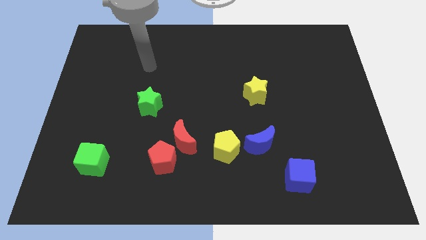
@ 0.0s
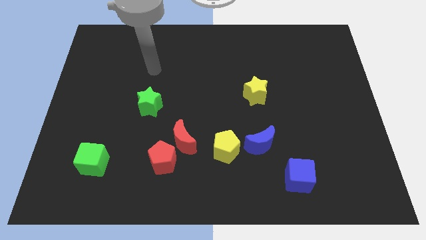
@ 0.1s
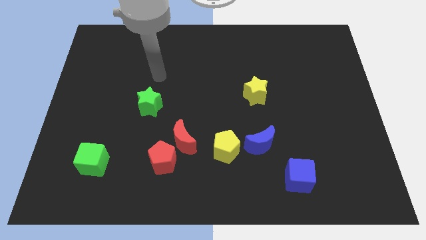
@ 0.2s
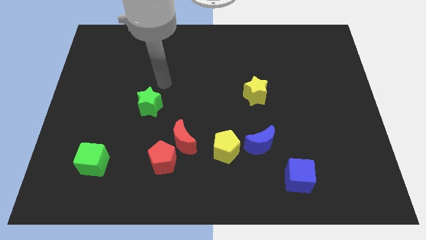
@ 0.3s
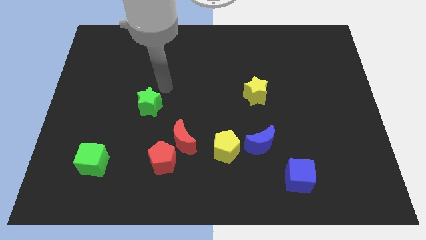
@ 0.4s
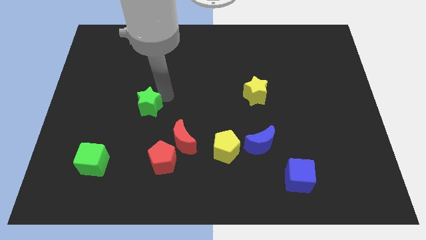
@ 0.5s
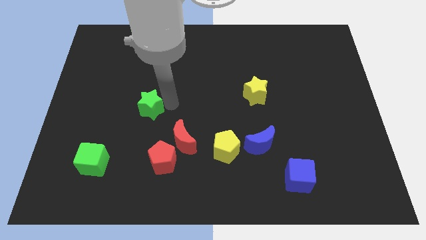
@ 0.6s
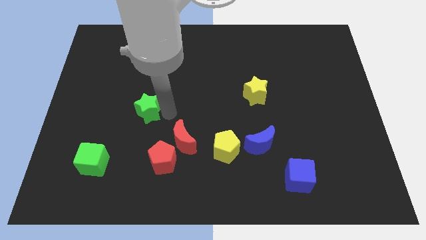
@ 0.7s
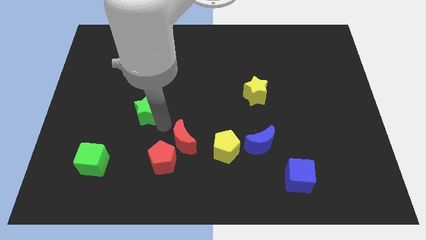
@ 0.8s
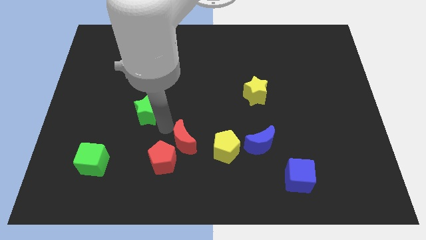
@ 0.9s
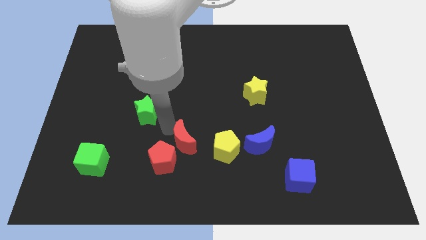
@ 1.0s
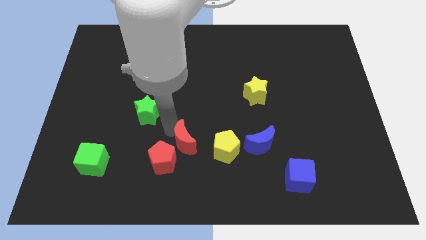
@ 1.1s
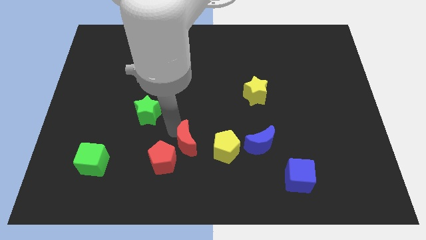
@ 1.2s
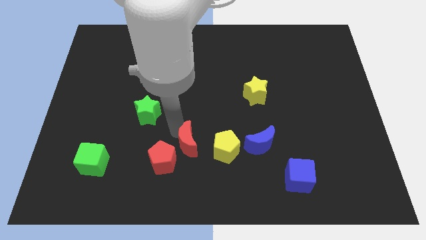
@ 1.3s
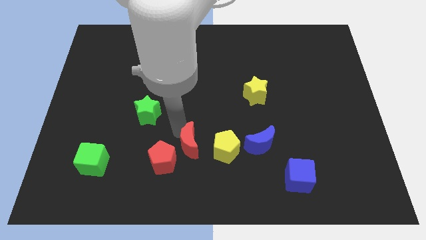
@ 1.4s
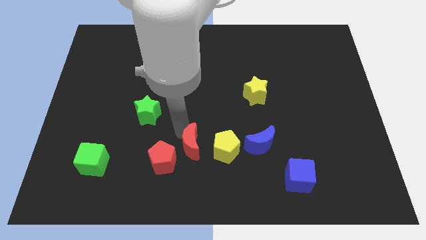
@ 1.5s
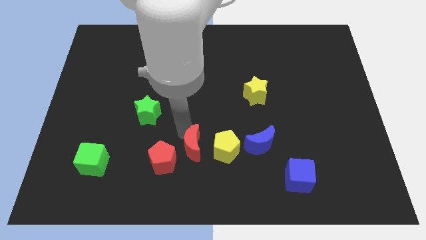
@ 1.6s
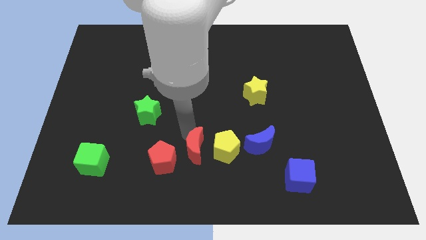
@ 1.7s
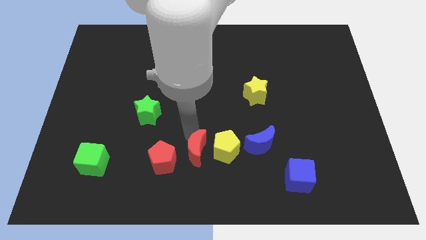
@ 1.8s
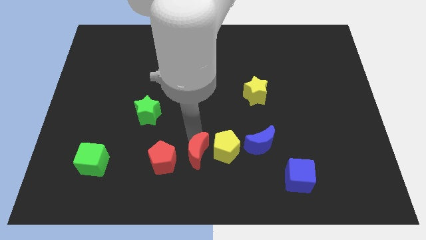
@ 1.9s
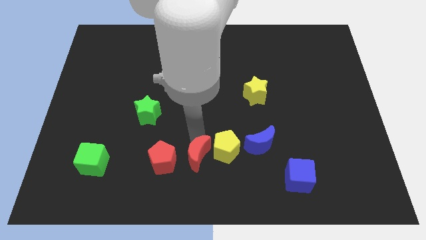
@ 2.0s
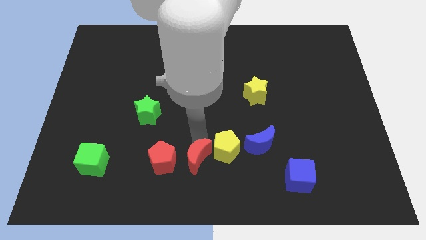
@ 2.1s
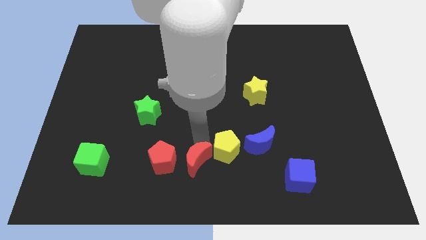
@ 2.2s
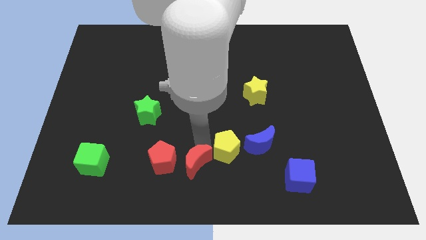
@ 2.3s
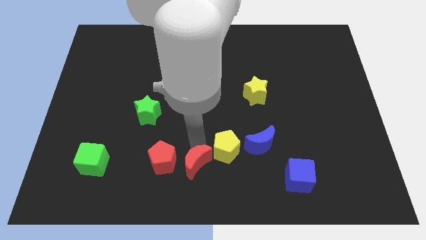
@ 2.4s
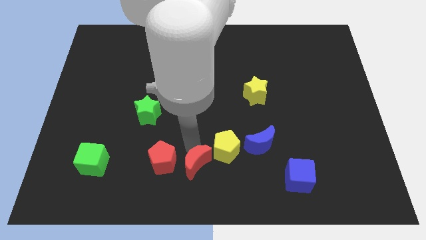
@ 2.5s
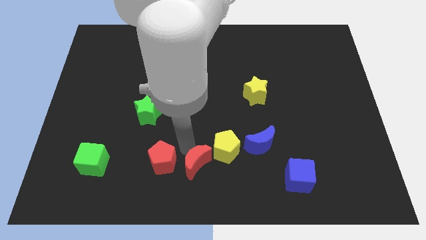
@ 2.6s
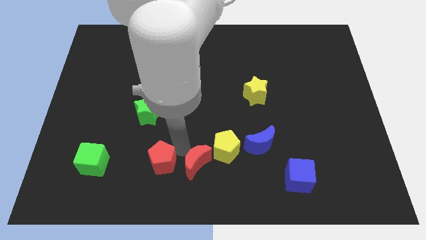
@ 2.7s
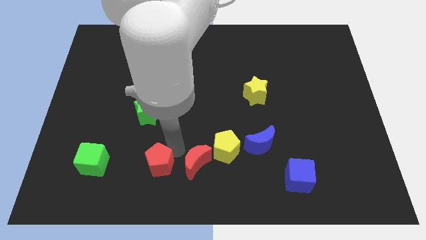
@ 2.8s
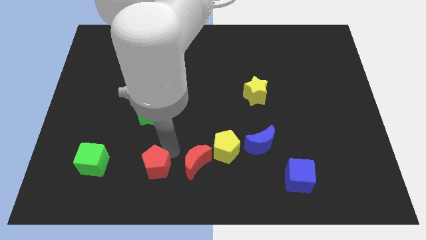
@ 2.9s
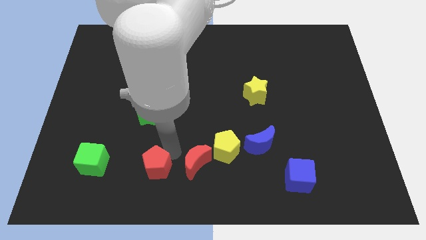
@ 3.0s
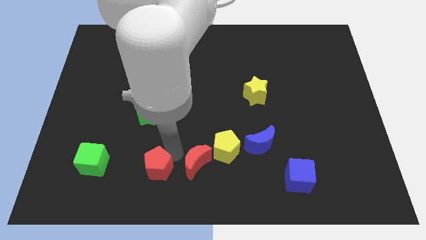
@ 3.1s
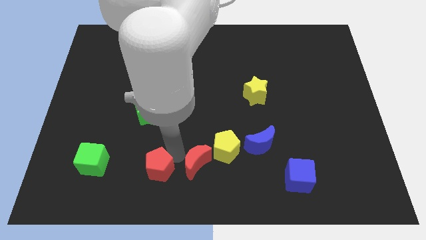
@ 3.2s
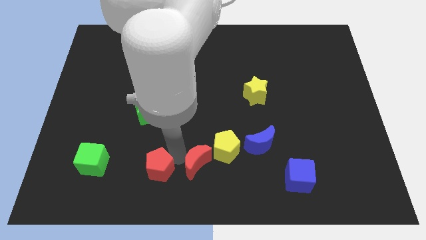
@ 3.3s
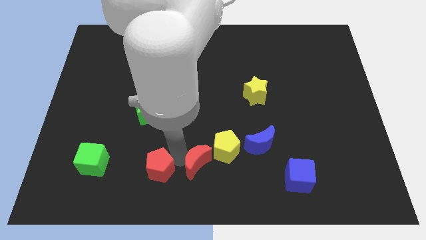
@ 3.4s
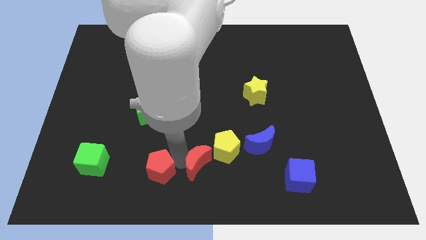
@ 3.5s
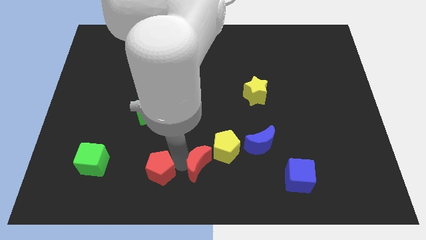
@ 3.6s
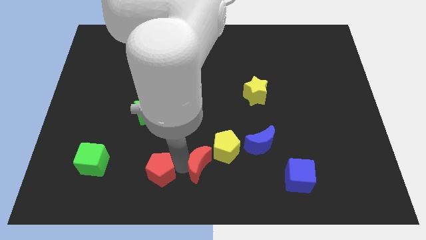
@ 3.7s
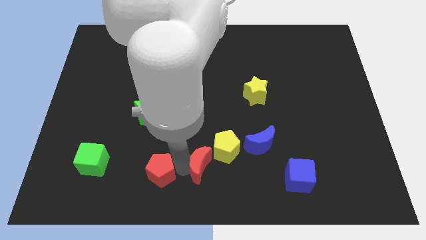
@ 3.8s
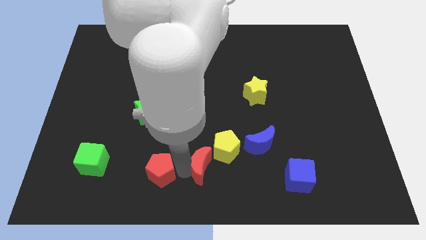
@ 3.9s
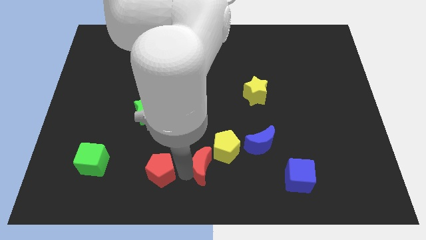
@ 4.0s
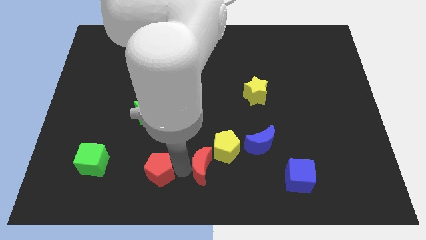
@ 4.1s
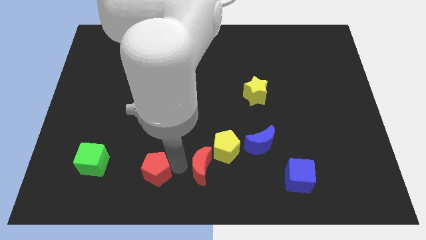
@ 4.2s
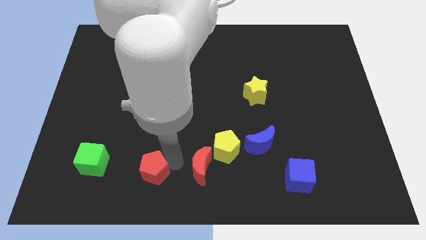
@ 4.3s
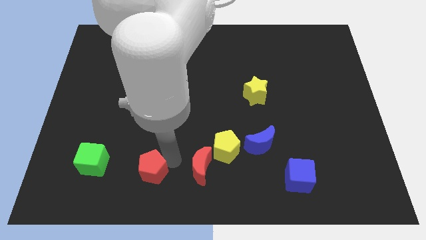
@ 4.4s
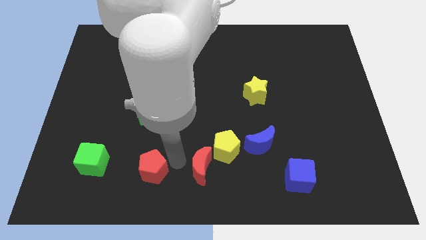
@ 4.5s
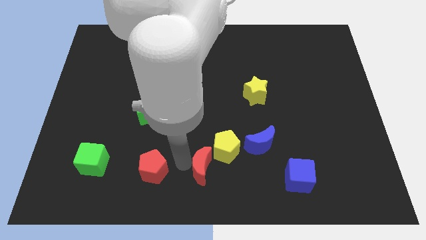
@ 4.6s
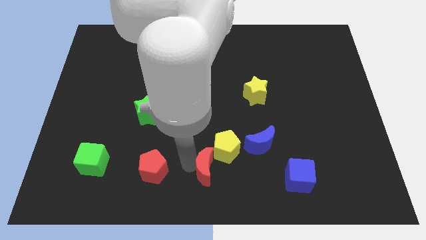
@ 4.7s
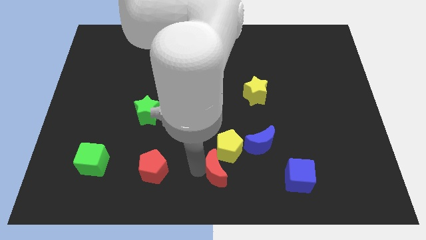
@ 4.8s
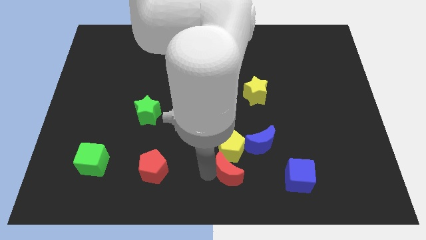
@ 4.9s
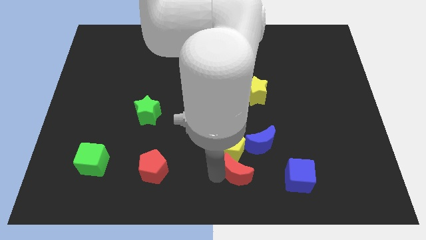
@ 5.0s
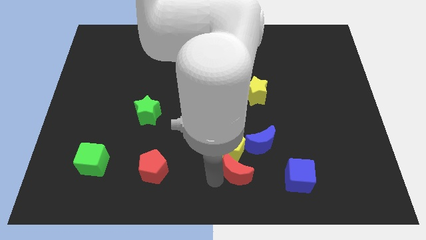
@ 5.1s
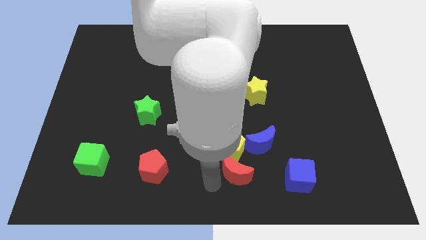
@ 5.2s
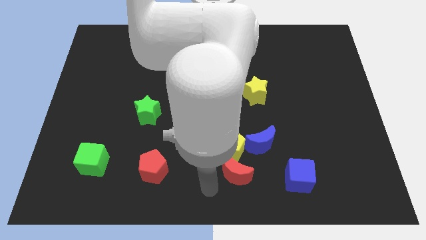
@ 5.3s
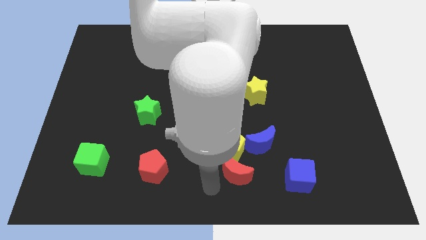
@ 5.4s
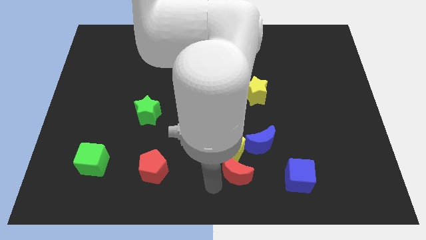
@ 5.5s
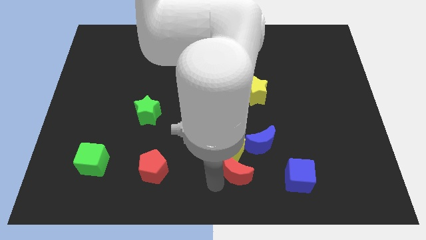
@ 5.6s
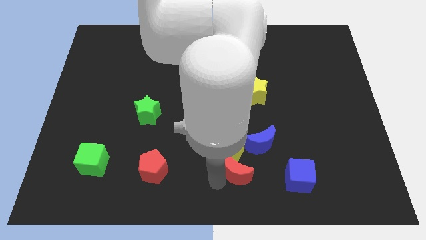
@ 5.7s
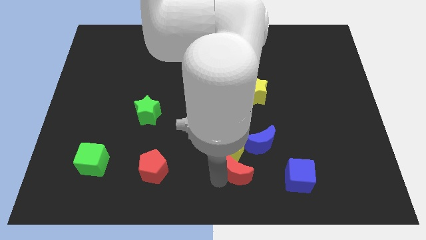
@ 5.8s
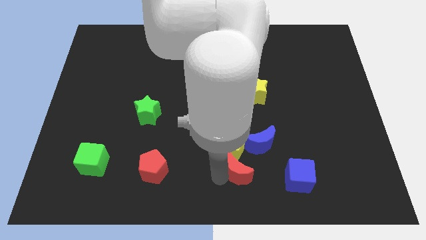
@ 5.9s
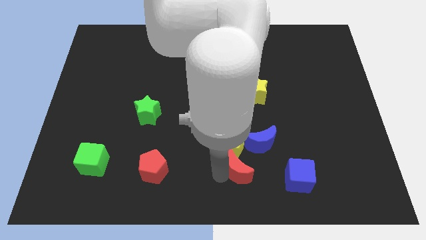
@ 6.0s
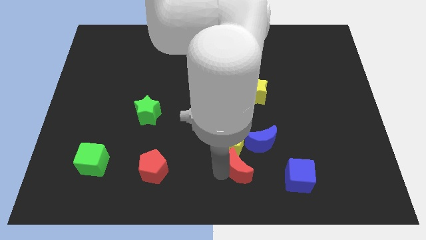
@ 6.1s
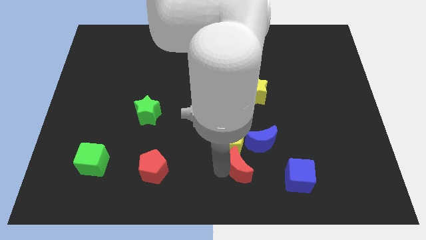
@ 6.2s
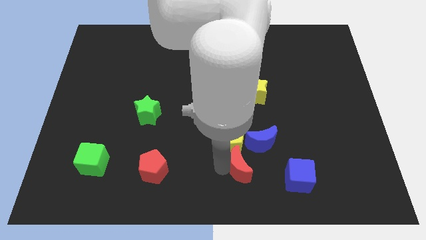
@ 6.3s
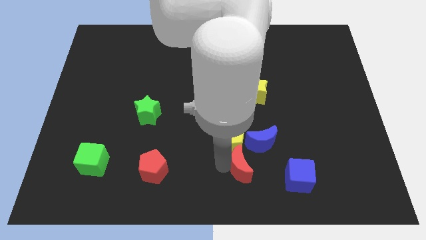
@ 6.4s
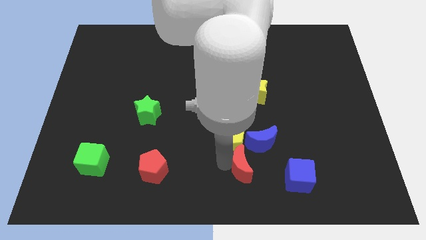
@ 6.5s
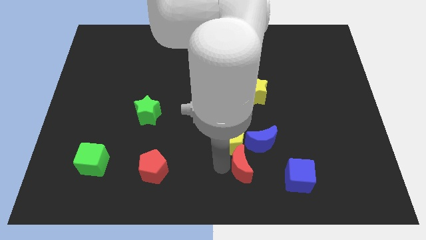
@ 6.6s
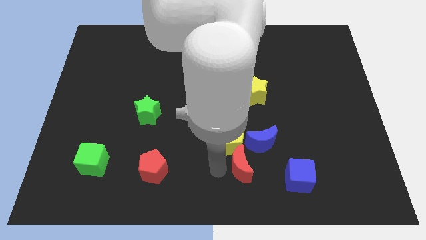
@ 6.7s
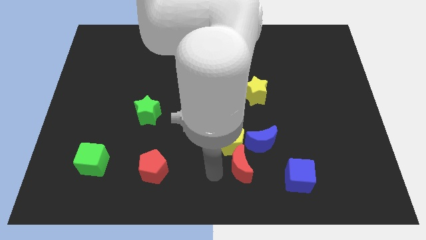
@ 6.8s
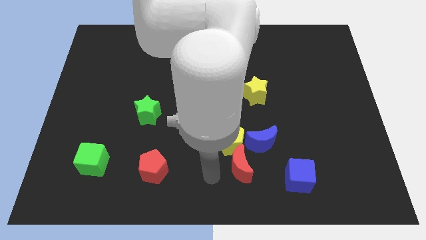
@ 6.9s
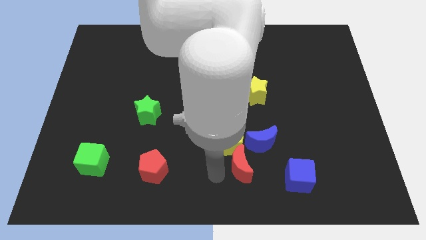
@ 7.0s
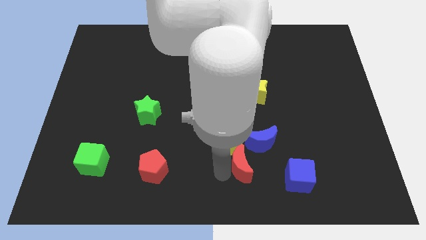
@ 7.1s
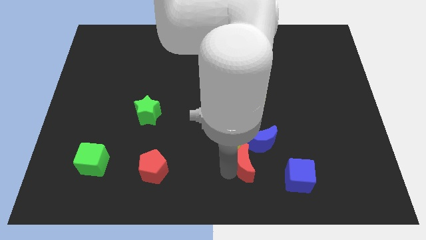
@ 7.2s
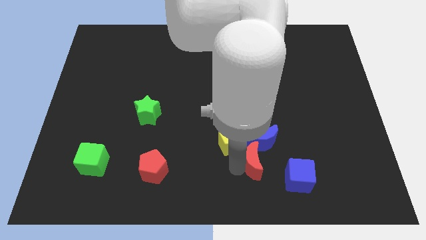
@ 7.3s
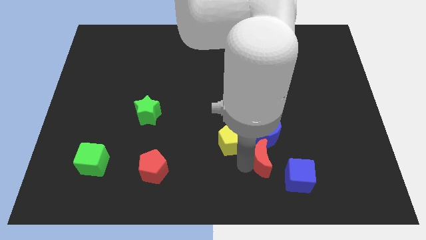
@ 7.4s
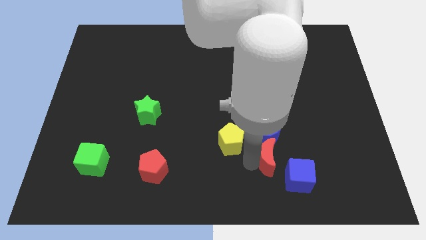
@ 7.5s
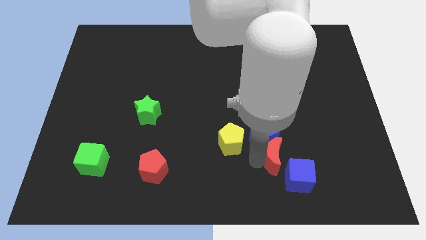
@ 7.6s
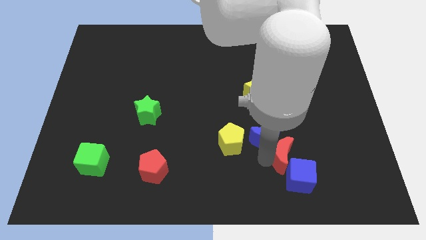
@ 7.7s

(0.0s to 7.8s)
push the red moon to the right

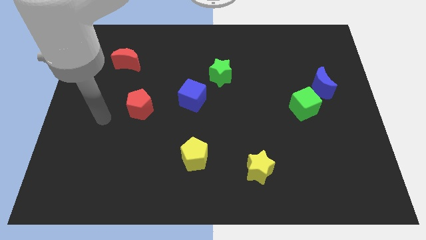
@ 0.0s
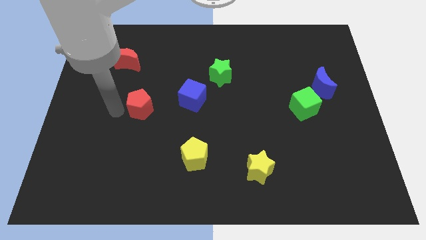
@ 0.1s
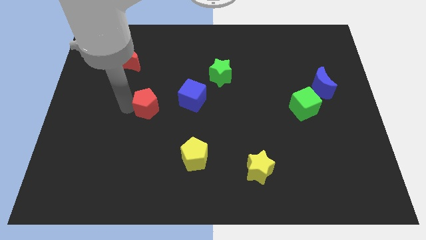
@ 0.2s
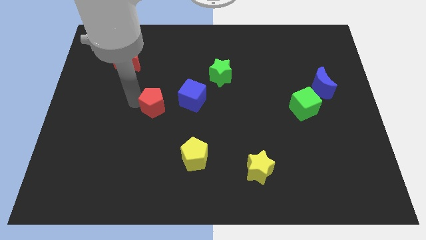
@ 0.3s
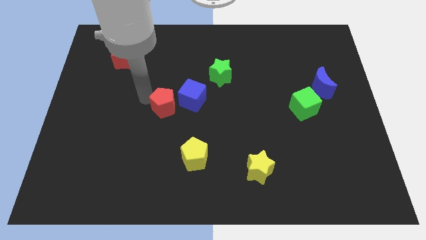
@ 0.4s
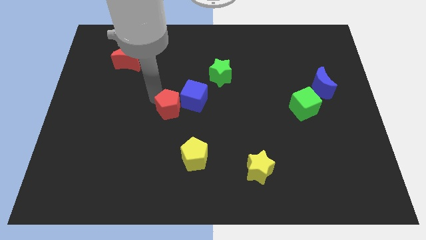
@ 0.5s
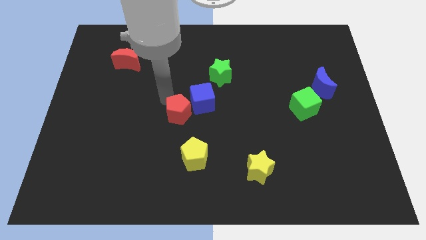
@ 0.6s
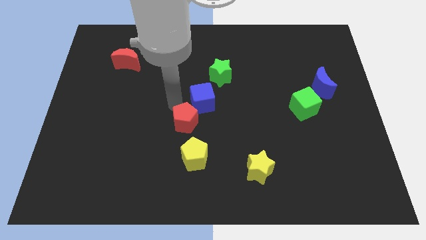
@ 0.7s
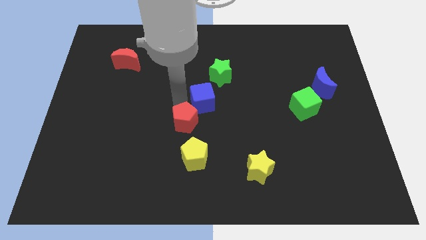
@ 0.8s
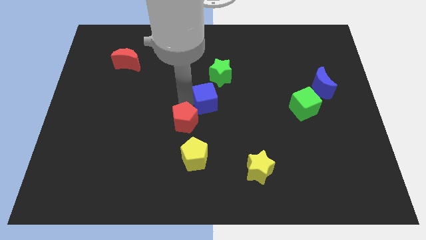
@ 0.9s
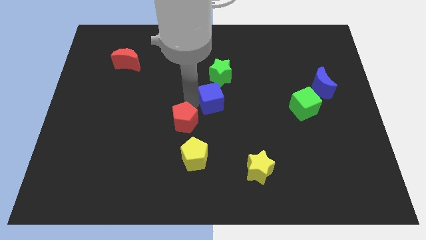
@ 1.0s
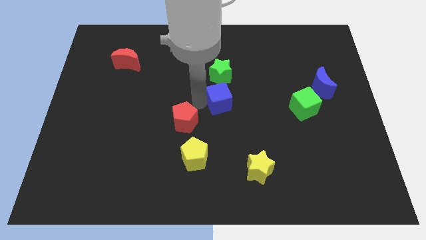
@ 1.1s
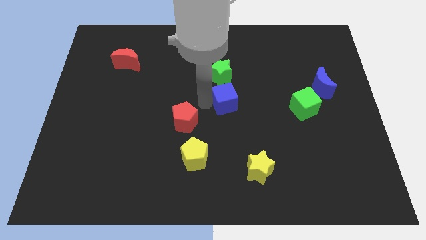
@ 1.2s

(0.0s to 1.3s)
slide the blue cube right slightly
